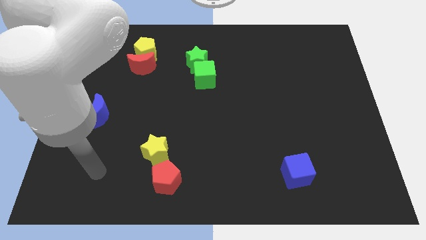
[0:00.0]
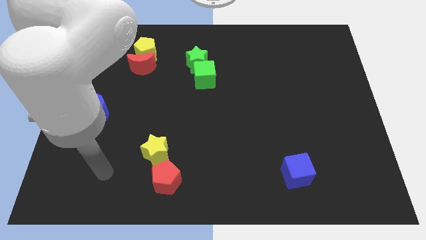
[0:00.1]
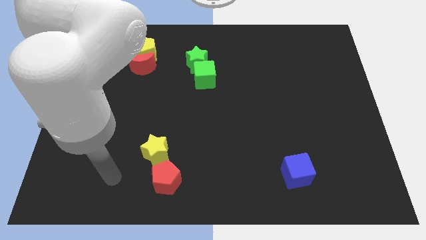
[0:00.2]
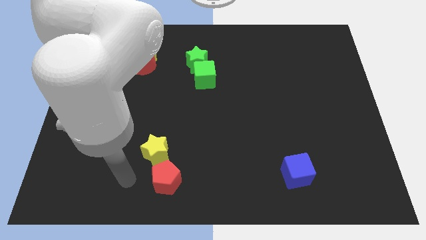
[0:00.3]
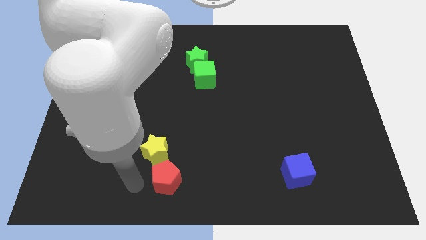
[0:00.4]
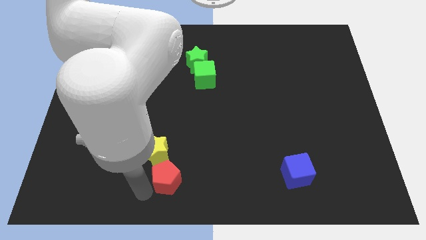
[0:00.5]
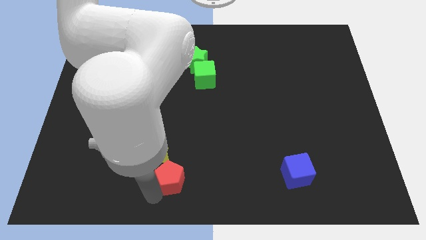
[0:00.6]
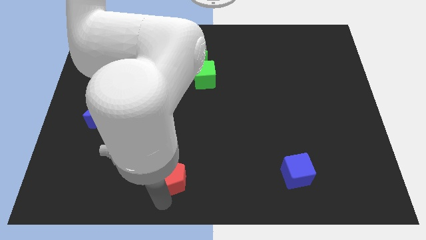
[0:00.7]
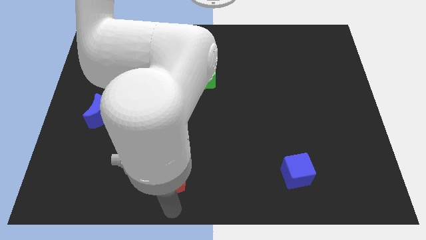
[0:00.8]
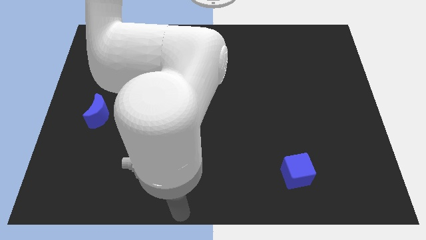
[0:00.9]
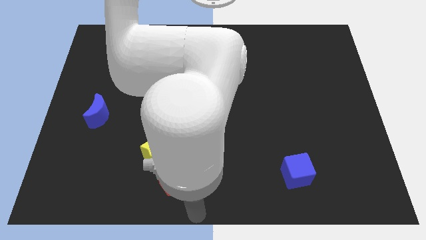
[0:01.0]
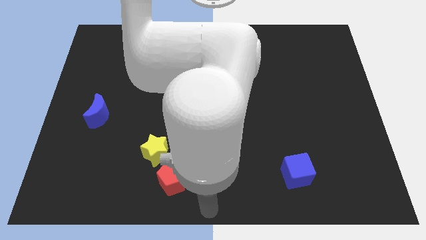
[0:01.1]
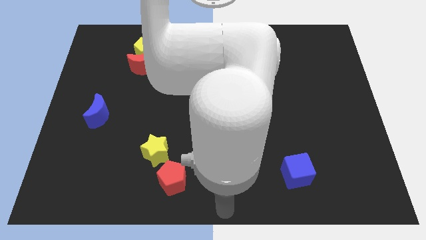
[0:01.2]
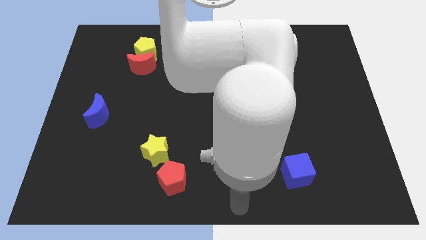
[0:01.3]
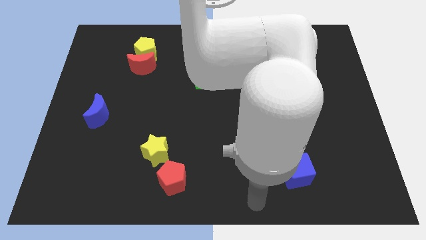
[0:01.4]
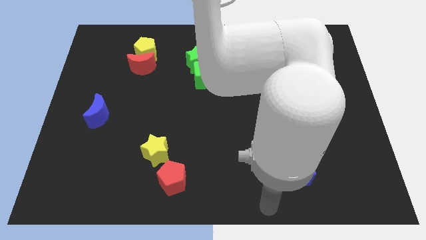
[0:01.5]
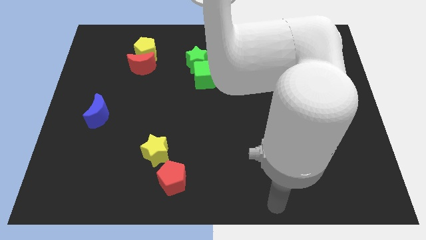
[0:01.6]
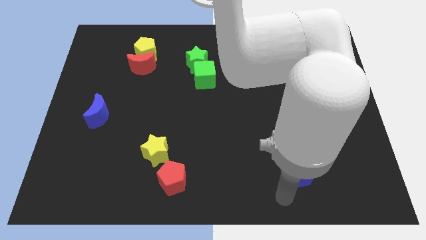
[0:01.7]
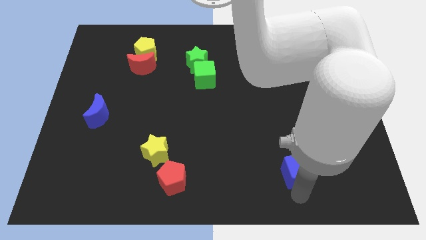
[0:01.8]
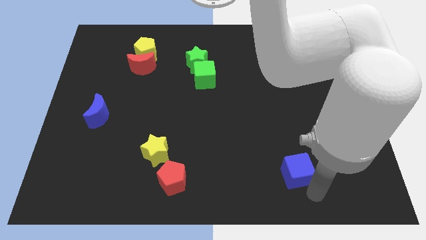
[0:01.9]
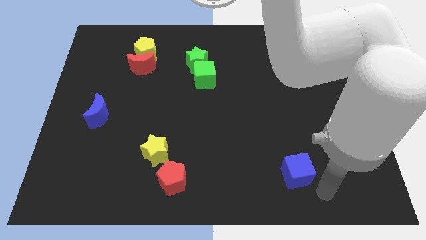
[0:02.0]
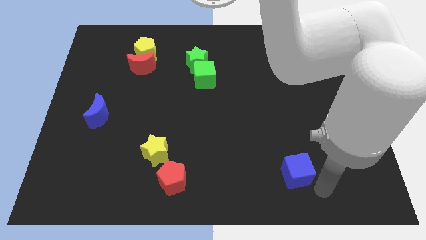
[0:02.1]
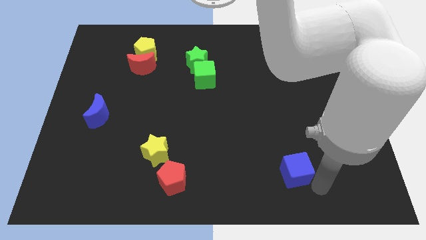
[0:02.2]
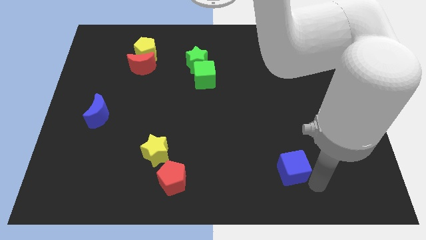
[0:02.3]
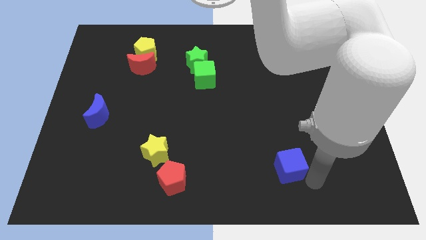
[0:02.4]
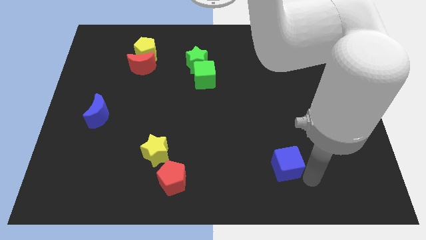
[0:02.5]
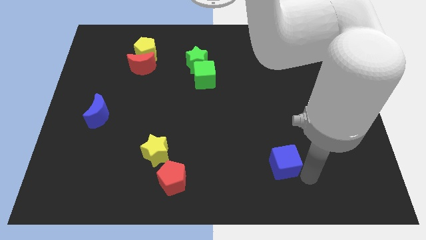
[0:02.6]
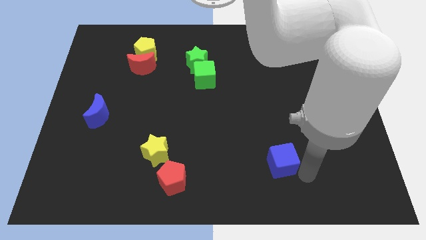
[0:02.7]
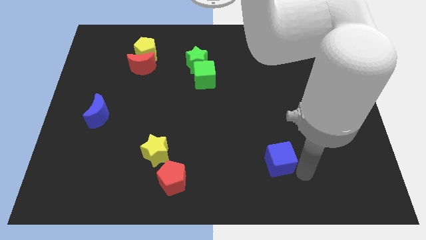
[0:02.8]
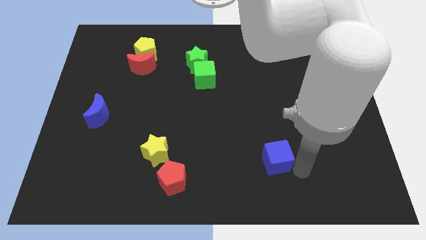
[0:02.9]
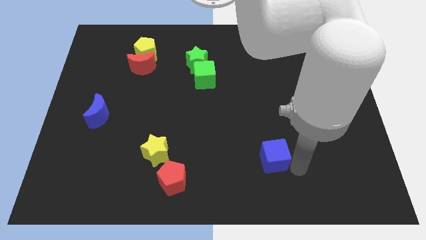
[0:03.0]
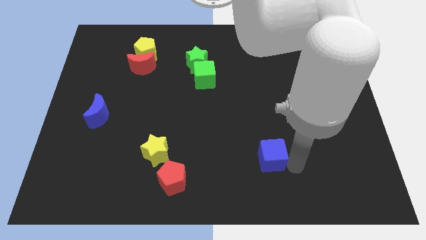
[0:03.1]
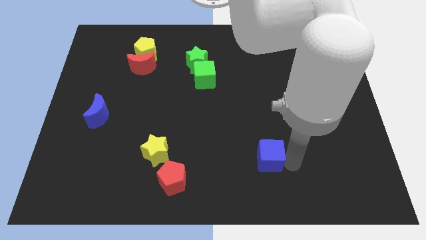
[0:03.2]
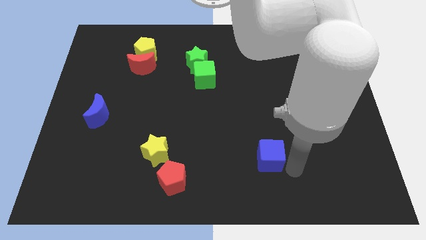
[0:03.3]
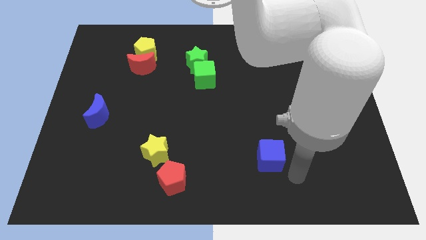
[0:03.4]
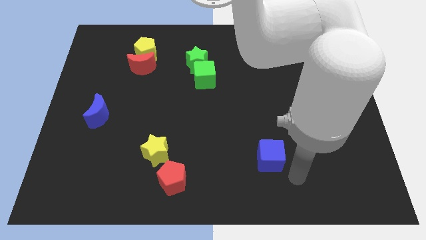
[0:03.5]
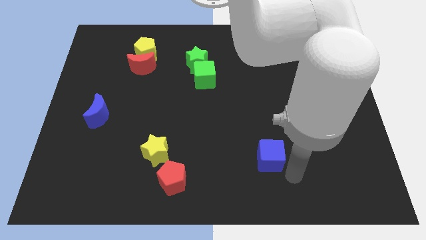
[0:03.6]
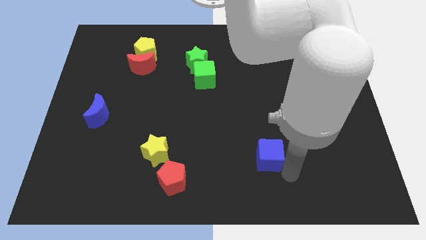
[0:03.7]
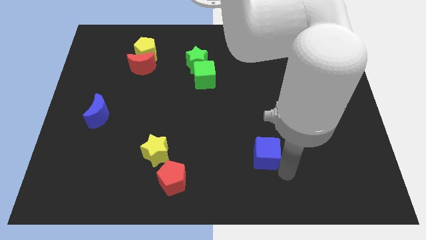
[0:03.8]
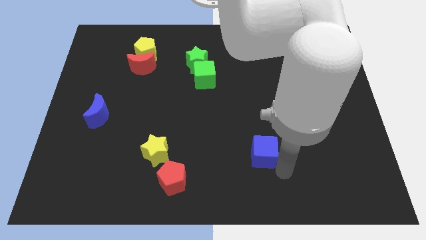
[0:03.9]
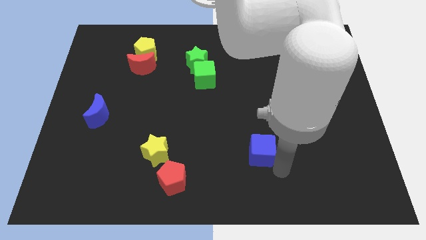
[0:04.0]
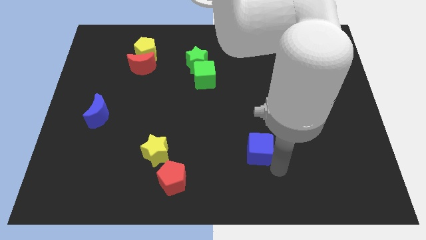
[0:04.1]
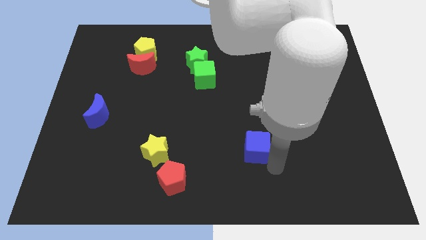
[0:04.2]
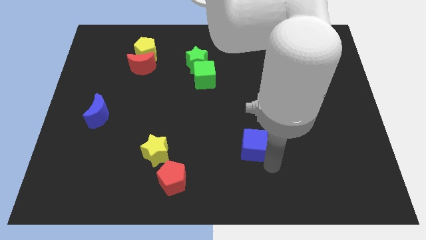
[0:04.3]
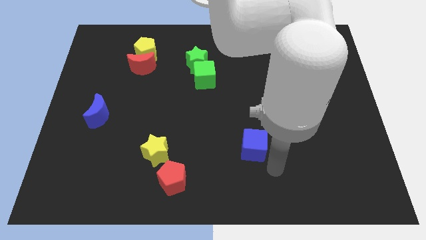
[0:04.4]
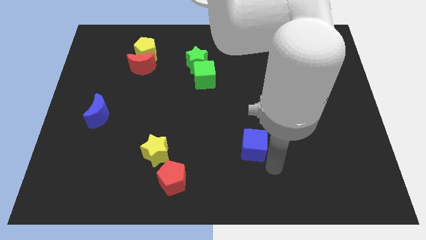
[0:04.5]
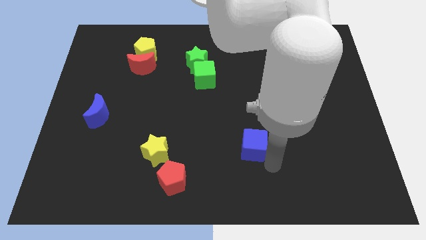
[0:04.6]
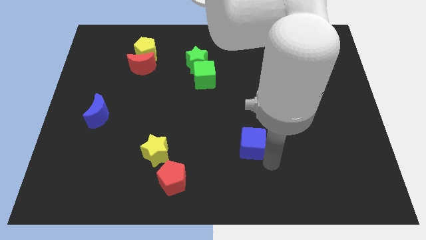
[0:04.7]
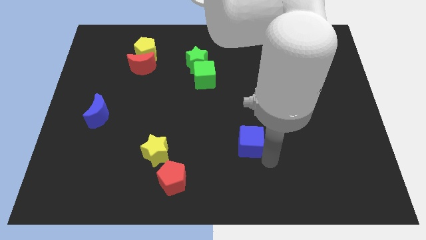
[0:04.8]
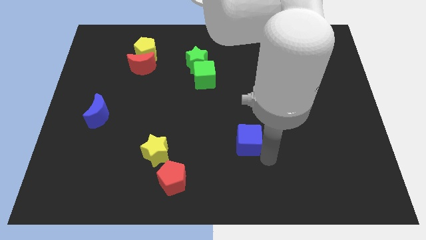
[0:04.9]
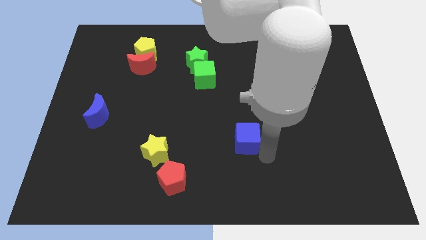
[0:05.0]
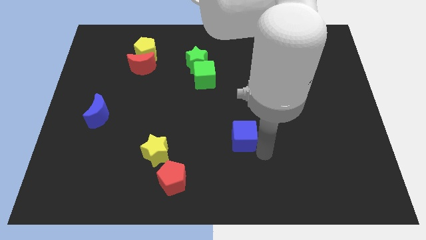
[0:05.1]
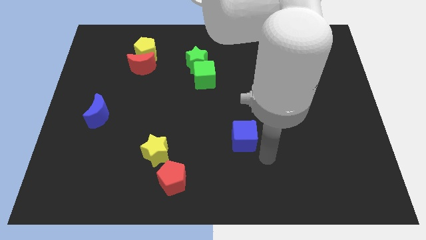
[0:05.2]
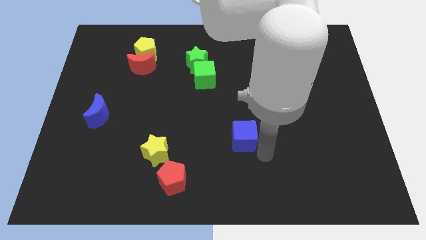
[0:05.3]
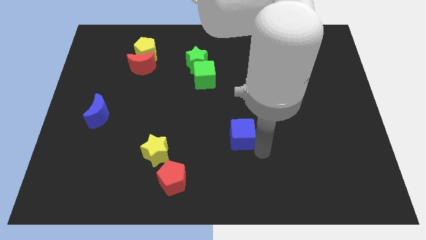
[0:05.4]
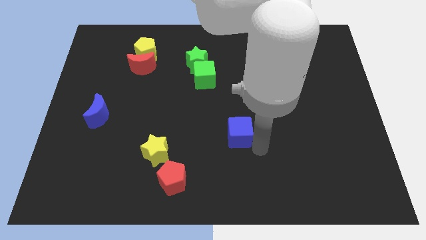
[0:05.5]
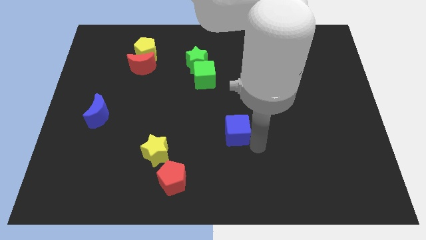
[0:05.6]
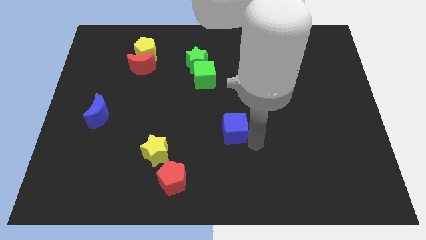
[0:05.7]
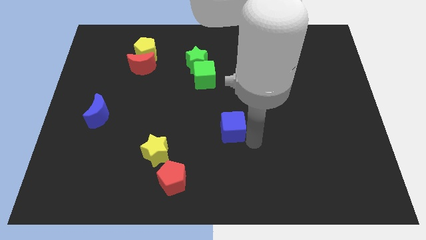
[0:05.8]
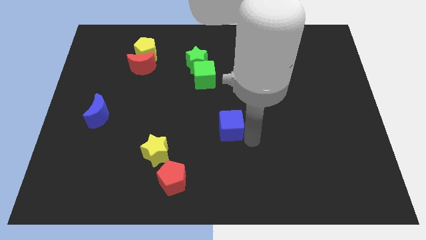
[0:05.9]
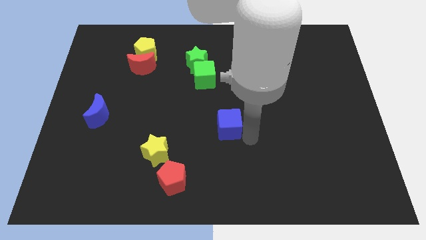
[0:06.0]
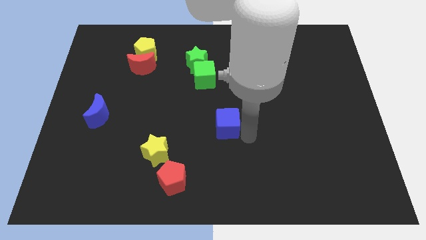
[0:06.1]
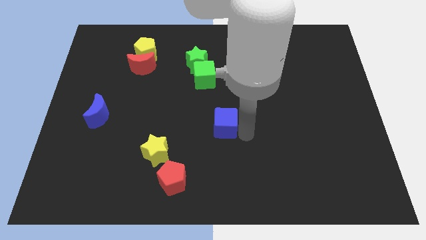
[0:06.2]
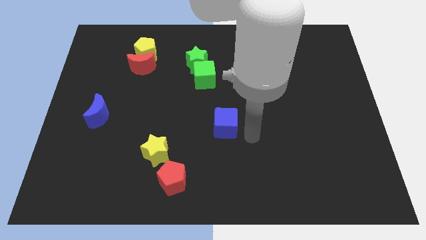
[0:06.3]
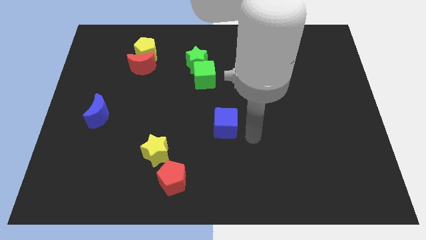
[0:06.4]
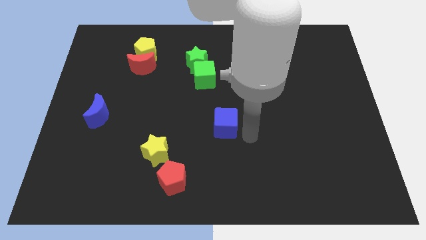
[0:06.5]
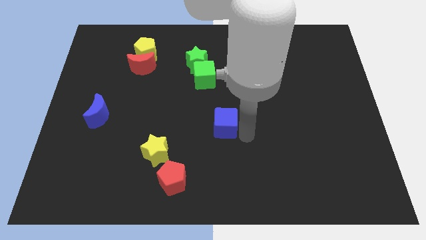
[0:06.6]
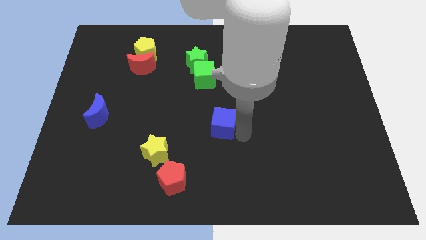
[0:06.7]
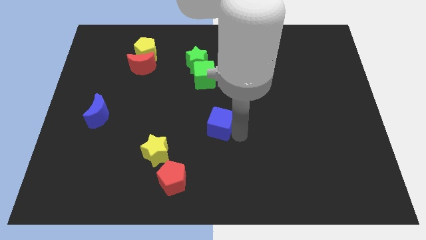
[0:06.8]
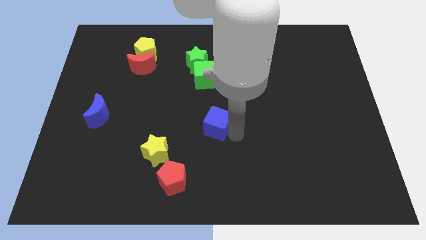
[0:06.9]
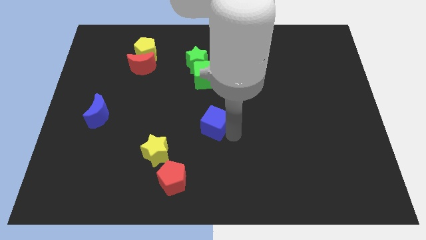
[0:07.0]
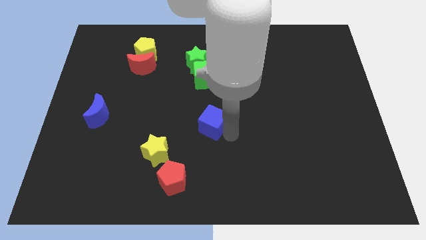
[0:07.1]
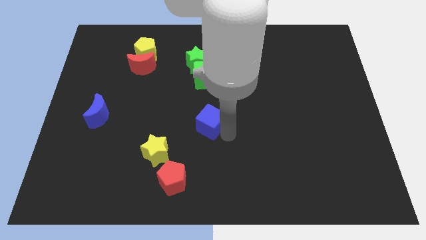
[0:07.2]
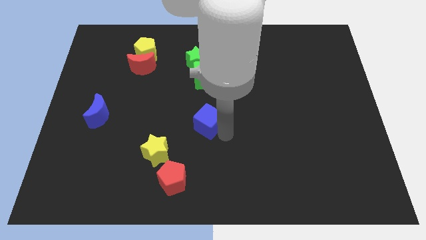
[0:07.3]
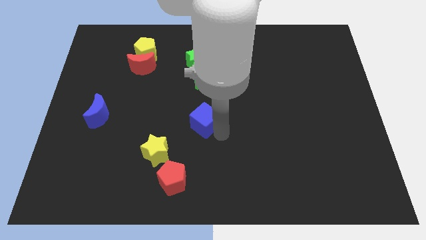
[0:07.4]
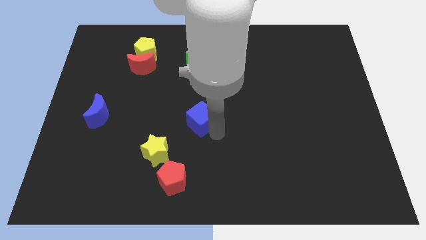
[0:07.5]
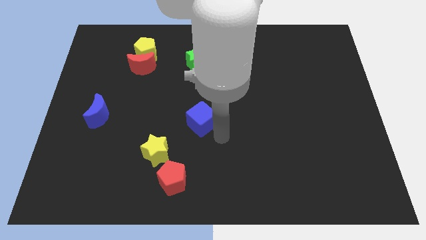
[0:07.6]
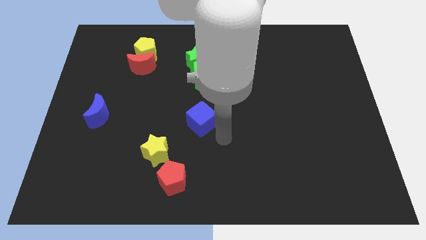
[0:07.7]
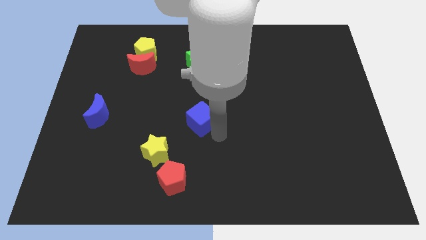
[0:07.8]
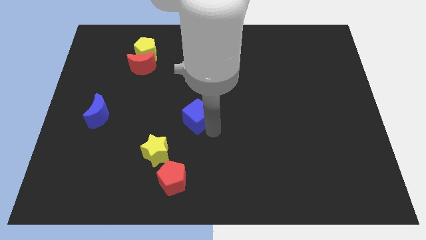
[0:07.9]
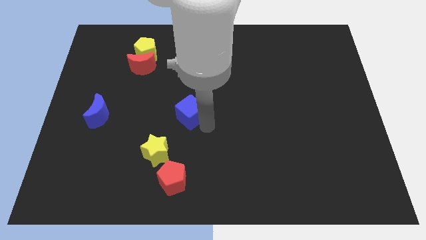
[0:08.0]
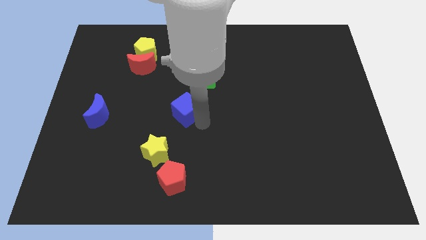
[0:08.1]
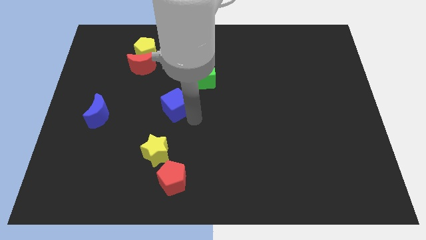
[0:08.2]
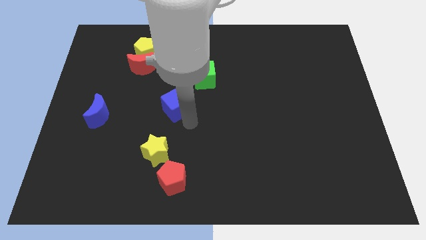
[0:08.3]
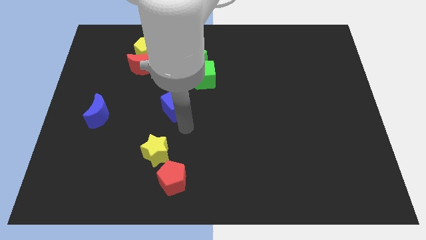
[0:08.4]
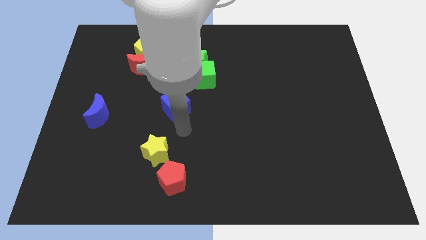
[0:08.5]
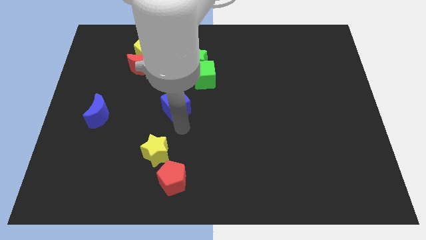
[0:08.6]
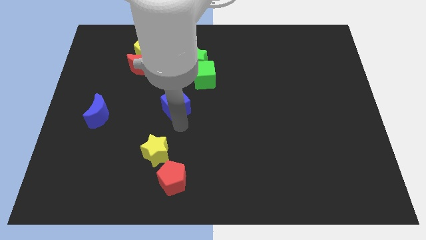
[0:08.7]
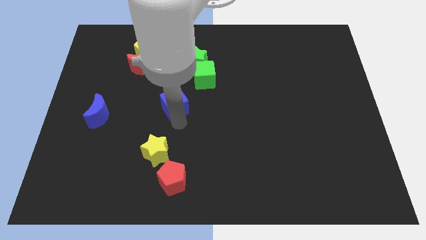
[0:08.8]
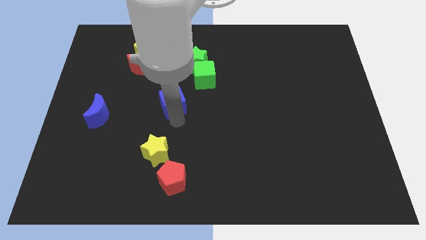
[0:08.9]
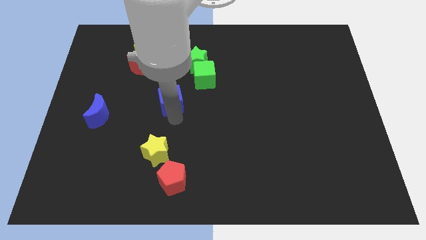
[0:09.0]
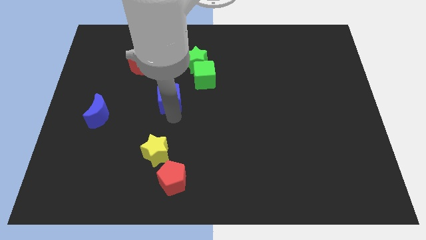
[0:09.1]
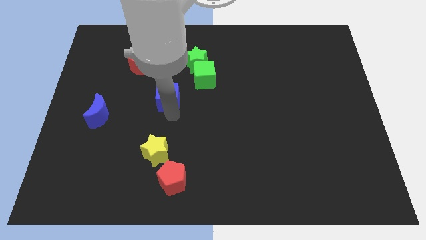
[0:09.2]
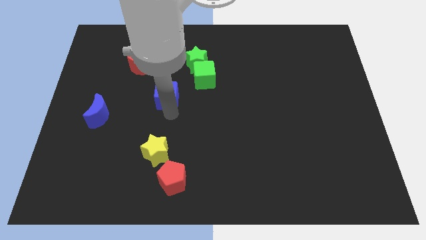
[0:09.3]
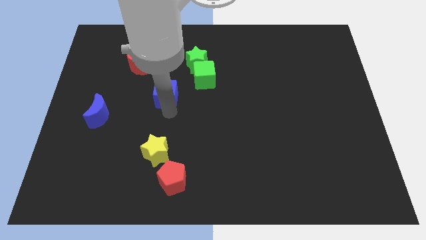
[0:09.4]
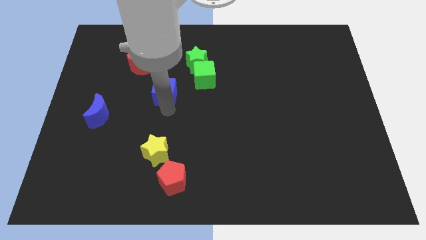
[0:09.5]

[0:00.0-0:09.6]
push the blue cube diagonally down and to the left of the green star
